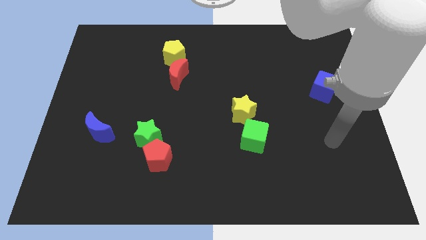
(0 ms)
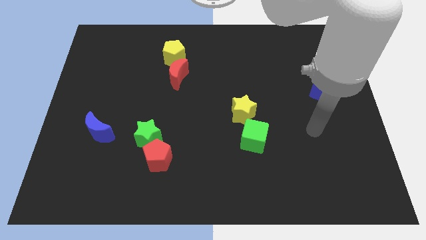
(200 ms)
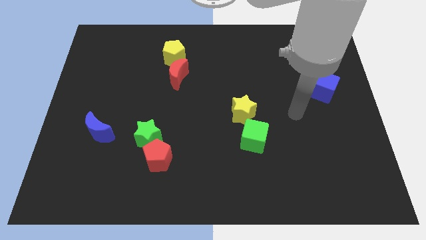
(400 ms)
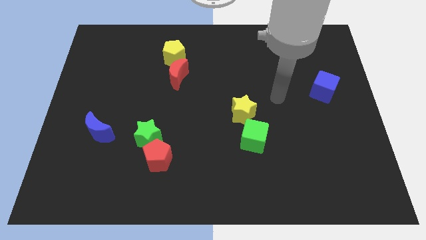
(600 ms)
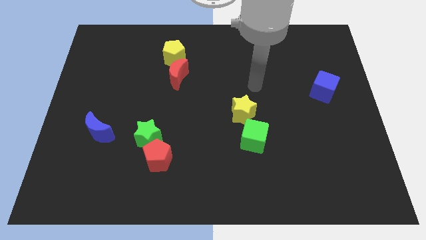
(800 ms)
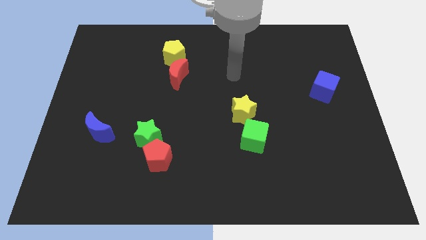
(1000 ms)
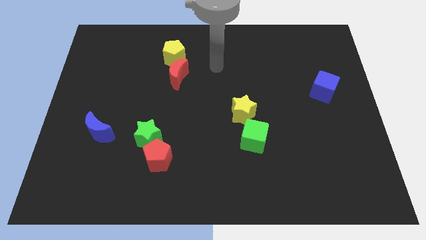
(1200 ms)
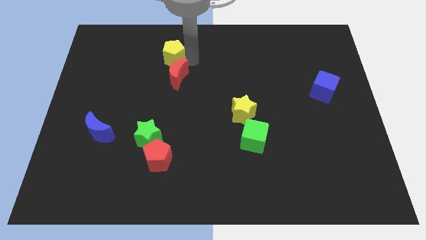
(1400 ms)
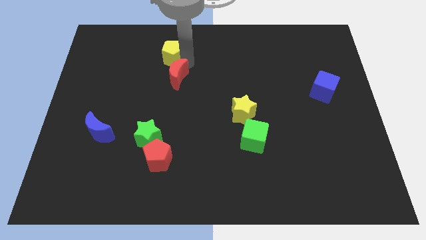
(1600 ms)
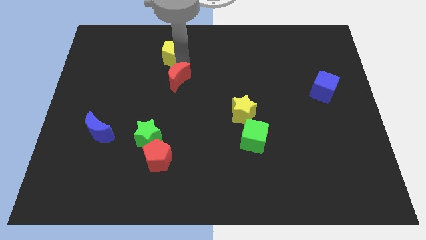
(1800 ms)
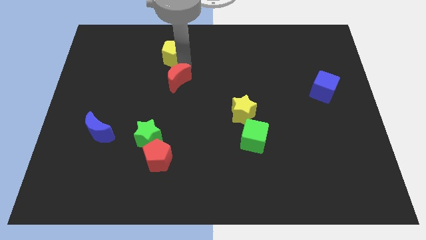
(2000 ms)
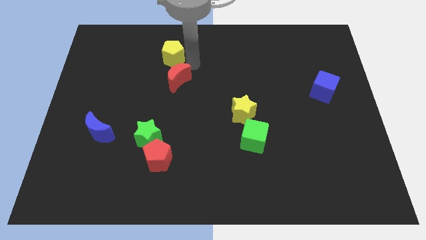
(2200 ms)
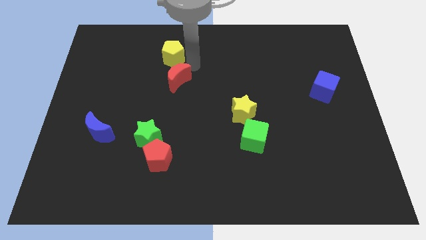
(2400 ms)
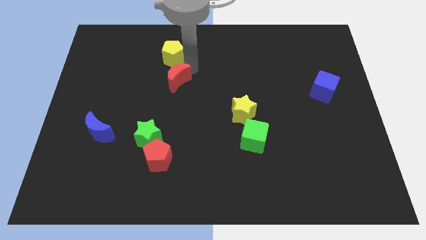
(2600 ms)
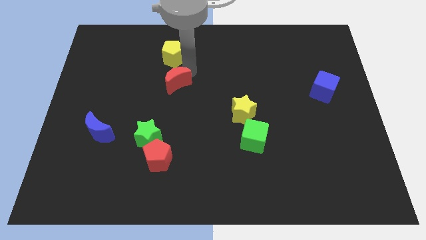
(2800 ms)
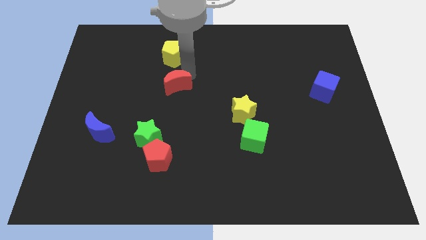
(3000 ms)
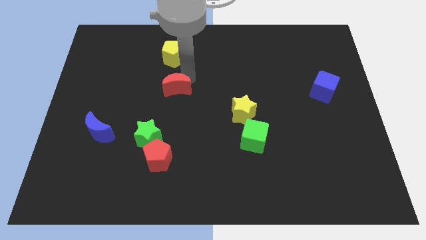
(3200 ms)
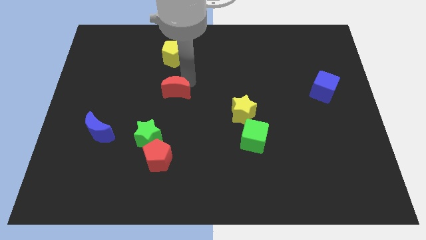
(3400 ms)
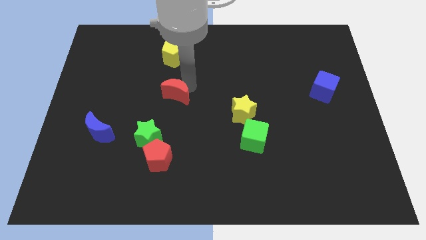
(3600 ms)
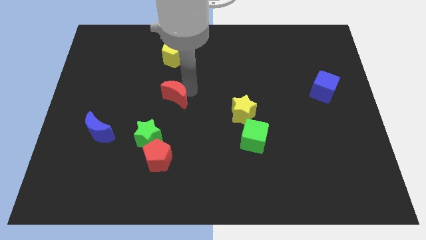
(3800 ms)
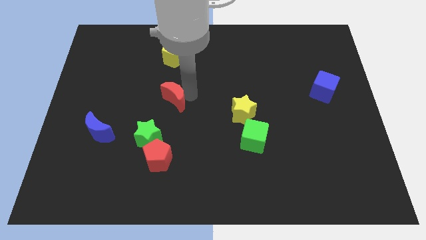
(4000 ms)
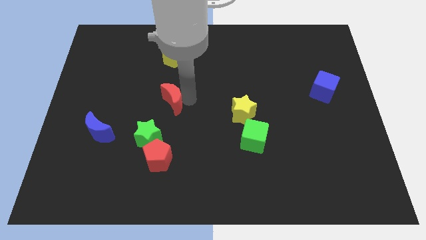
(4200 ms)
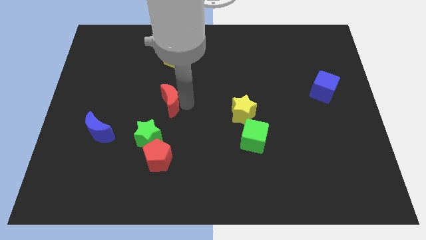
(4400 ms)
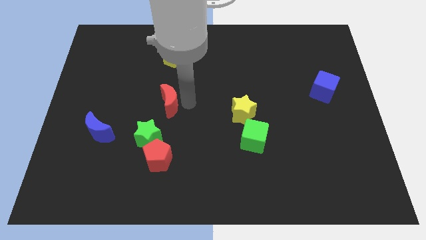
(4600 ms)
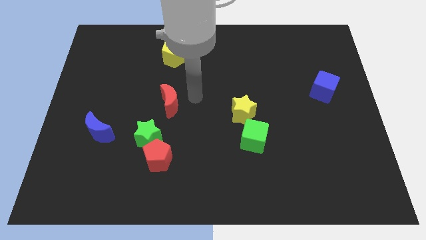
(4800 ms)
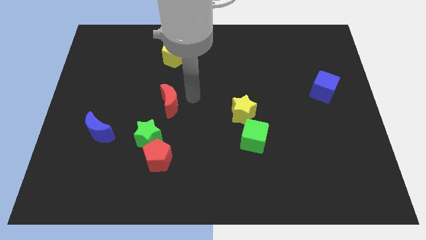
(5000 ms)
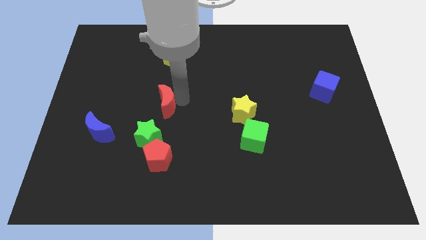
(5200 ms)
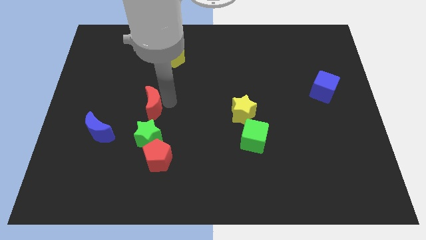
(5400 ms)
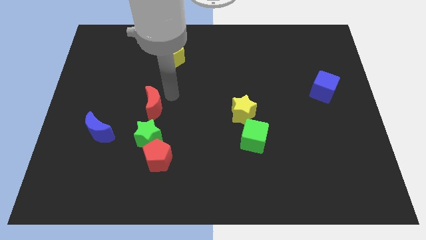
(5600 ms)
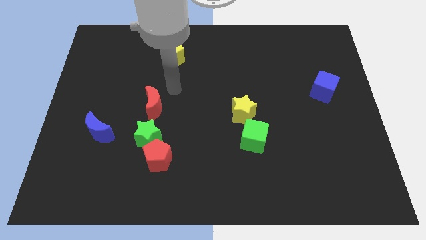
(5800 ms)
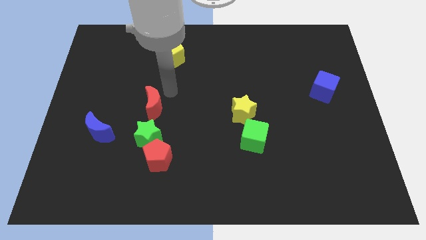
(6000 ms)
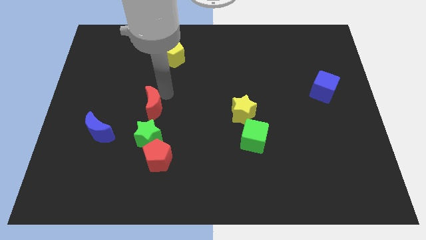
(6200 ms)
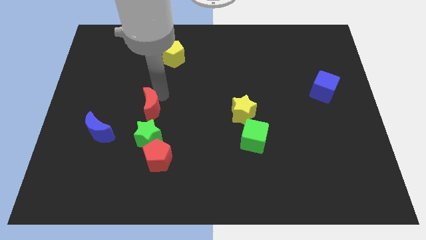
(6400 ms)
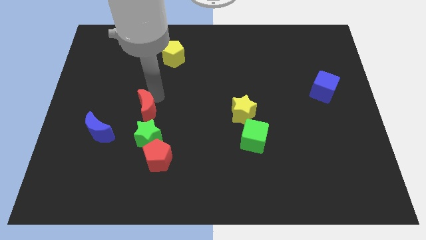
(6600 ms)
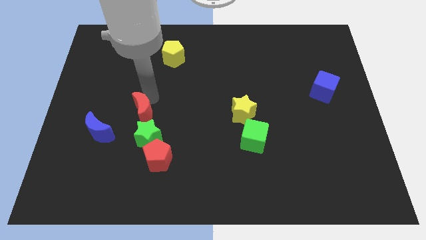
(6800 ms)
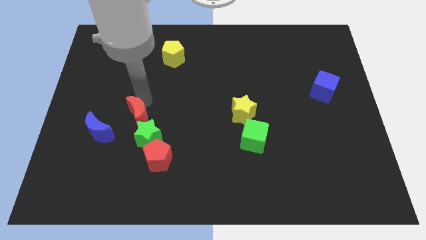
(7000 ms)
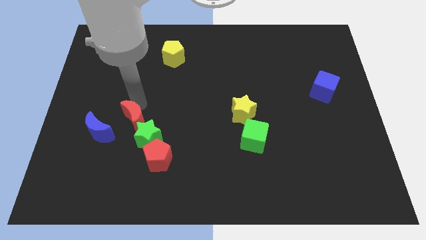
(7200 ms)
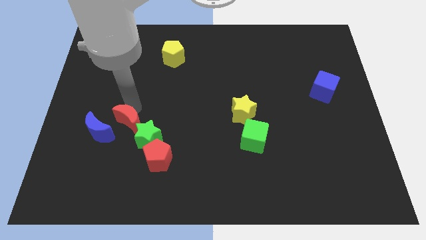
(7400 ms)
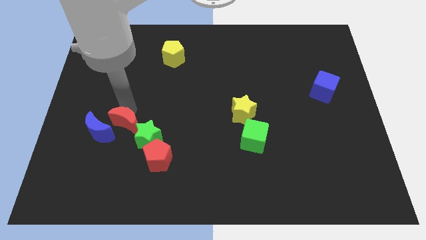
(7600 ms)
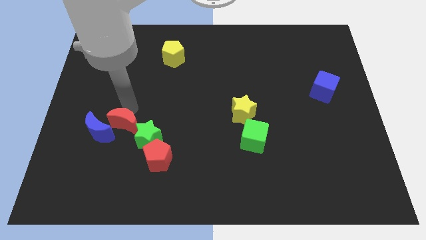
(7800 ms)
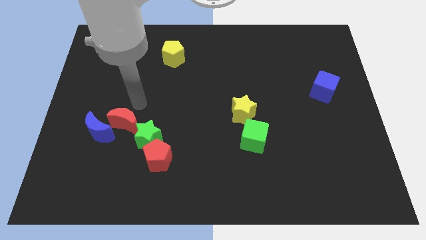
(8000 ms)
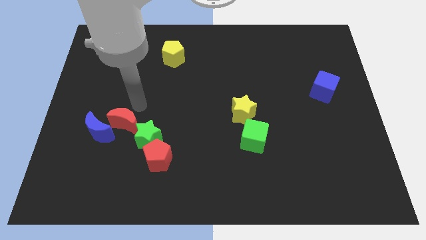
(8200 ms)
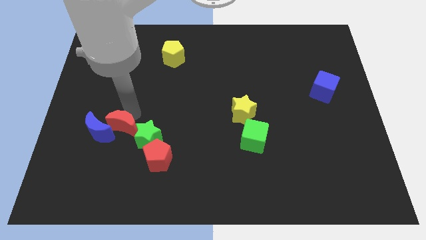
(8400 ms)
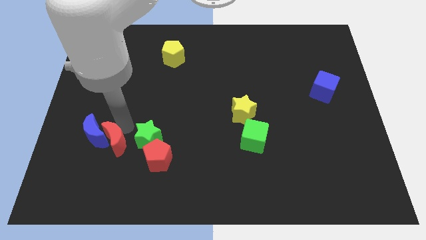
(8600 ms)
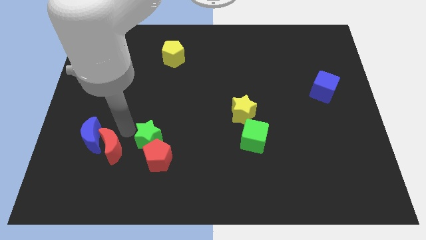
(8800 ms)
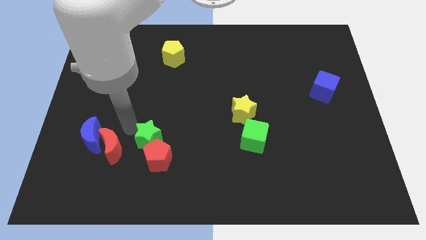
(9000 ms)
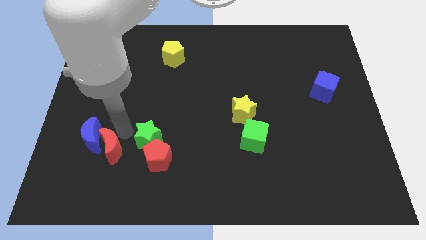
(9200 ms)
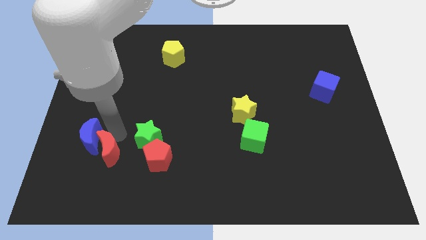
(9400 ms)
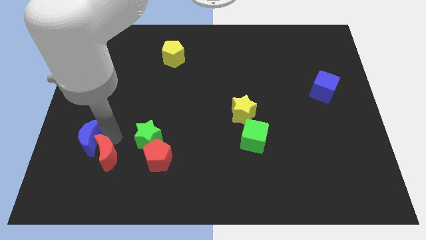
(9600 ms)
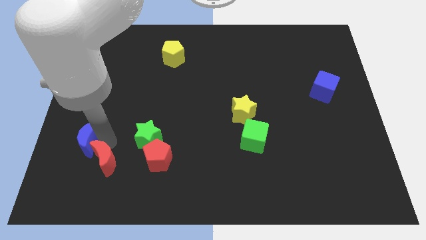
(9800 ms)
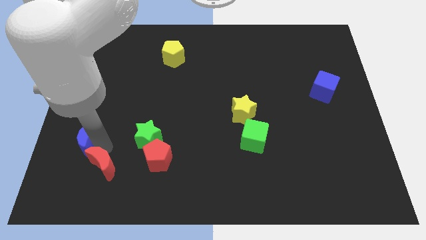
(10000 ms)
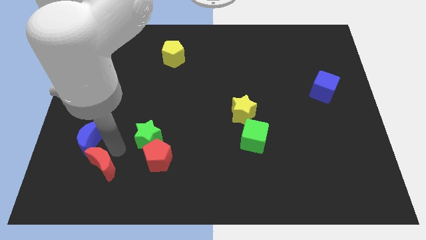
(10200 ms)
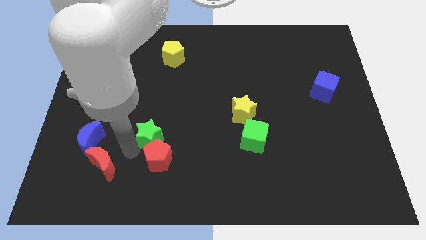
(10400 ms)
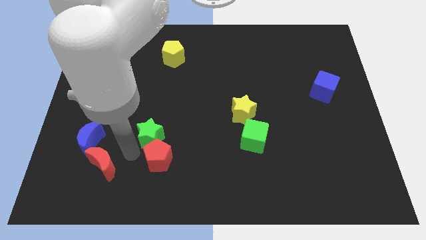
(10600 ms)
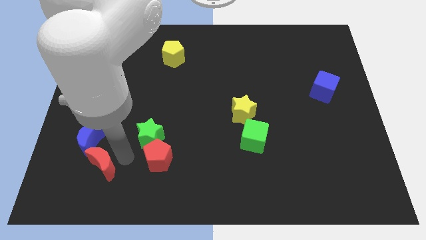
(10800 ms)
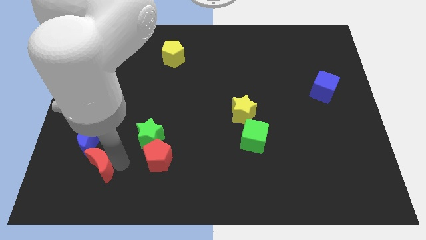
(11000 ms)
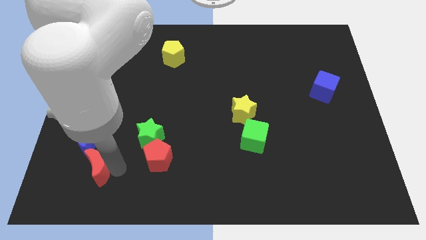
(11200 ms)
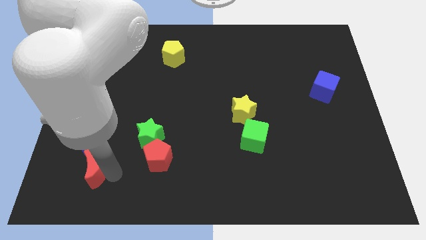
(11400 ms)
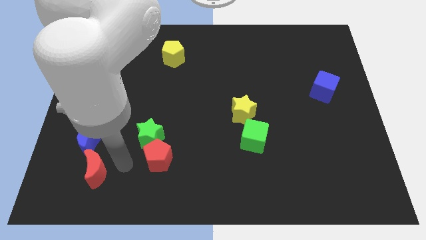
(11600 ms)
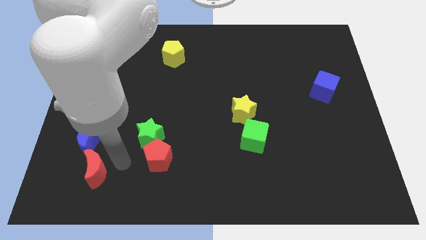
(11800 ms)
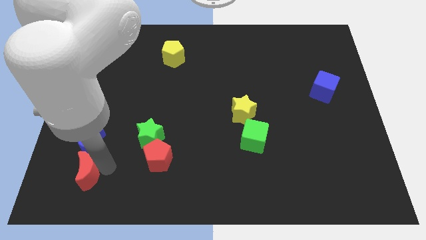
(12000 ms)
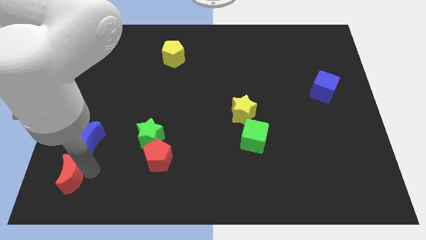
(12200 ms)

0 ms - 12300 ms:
move the red moon to the lower left corner
